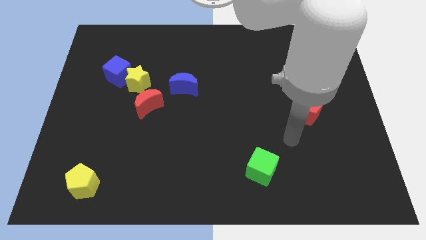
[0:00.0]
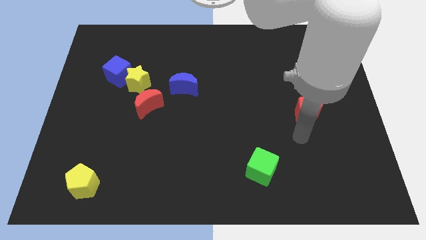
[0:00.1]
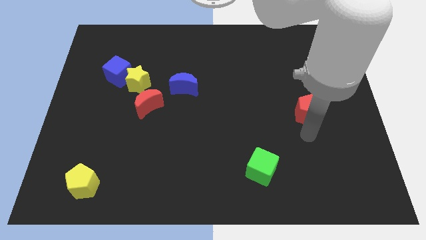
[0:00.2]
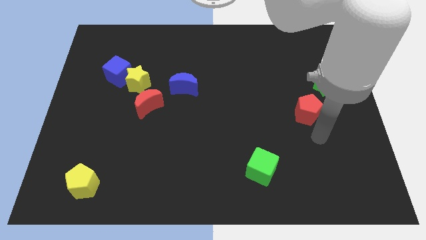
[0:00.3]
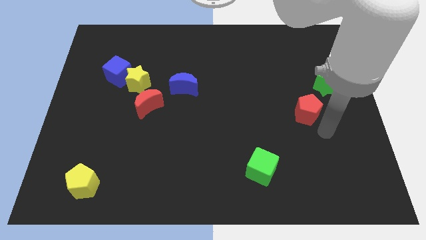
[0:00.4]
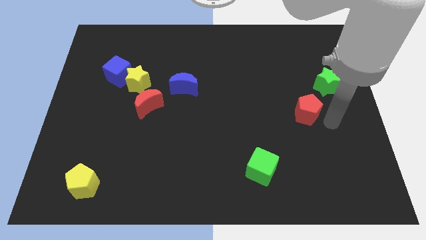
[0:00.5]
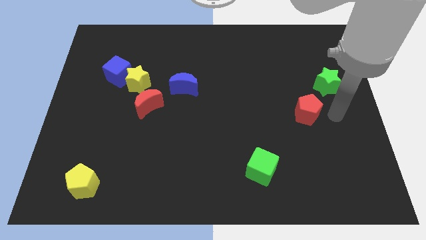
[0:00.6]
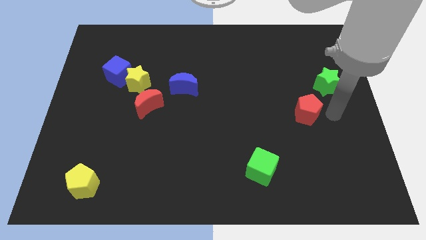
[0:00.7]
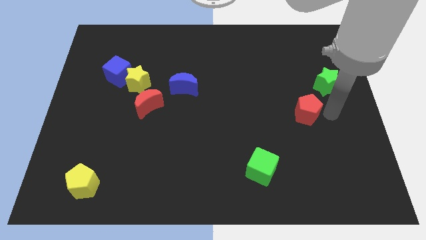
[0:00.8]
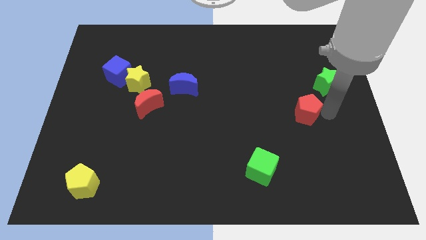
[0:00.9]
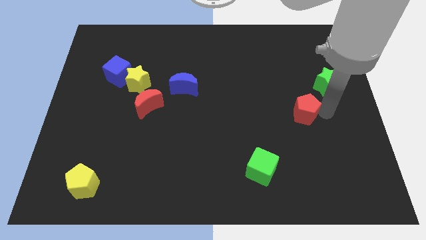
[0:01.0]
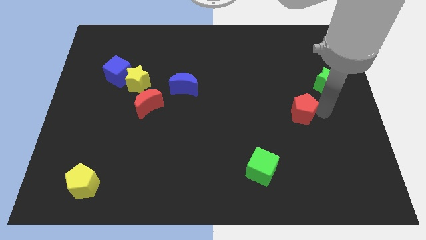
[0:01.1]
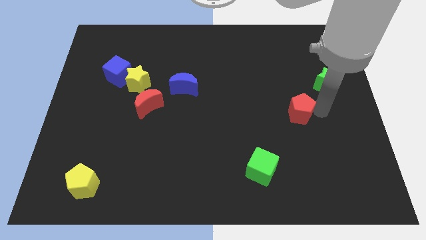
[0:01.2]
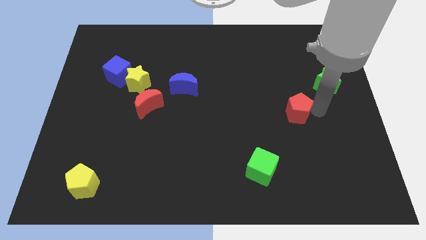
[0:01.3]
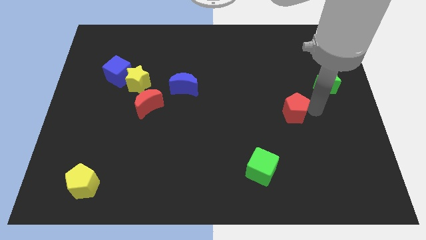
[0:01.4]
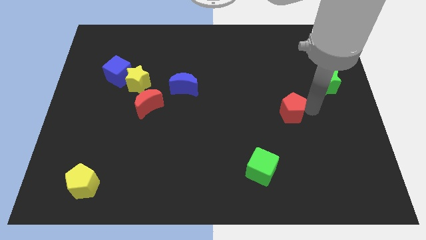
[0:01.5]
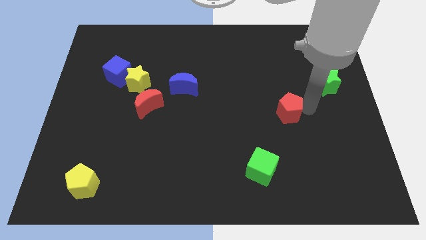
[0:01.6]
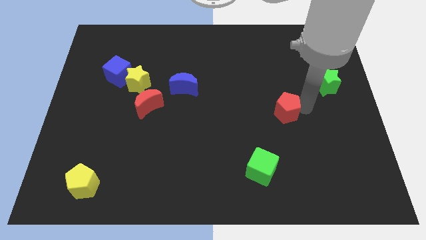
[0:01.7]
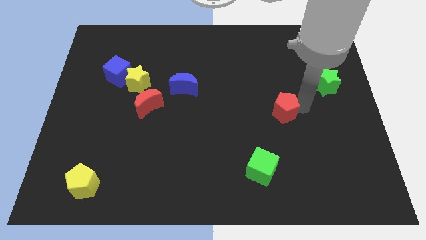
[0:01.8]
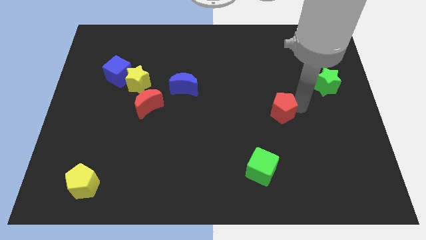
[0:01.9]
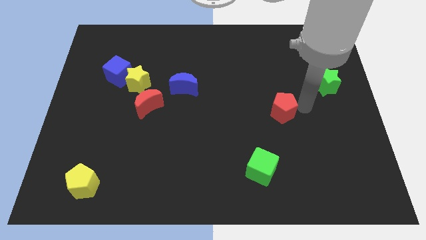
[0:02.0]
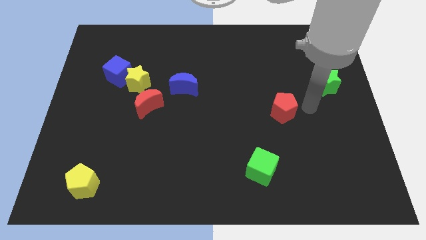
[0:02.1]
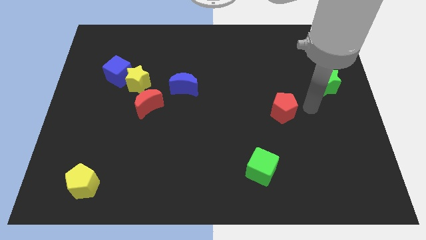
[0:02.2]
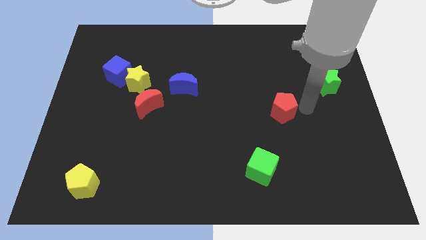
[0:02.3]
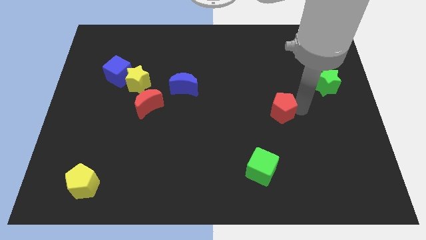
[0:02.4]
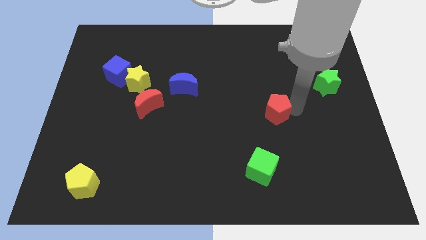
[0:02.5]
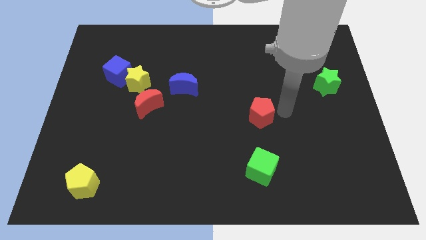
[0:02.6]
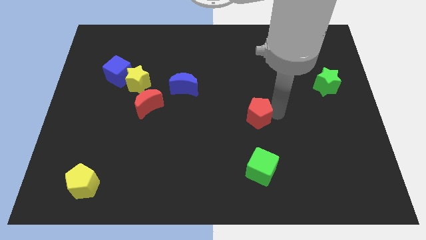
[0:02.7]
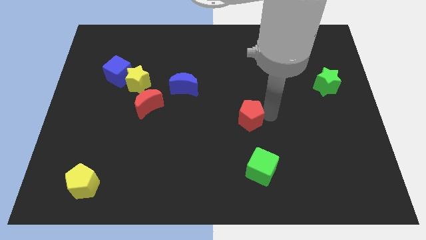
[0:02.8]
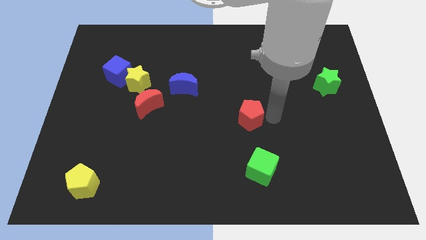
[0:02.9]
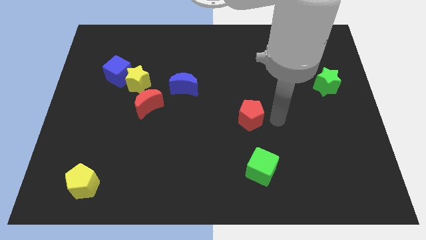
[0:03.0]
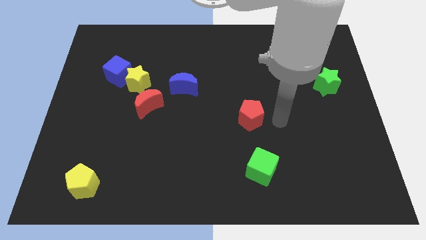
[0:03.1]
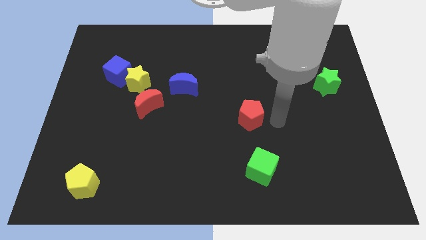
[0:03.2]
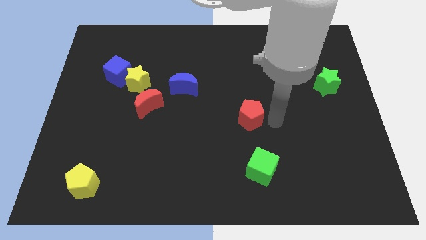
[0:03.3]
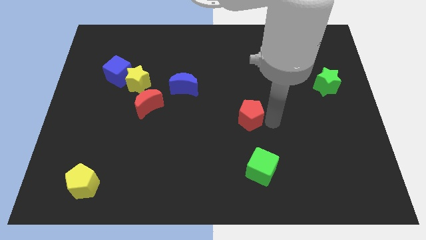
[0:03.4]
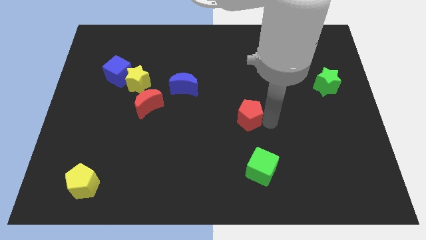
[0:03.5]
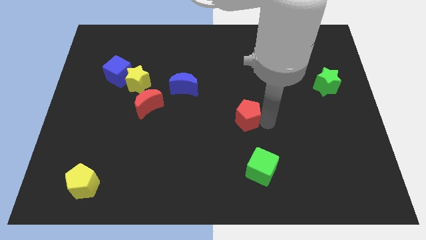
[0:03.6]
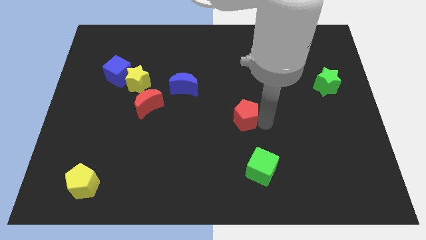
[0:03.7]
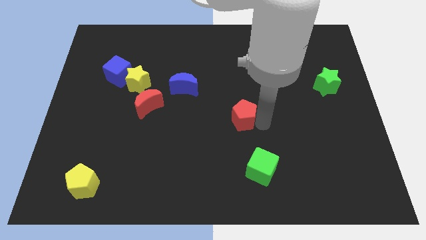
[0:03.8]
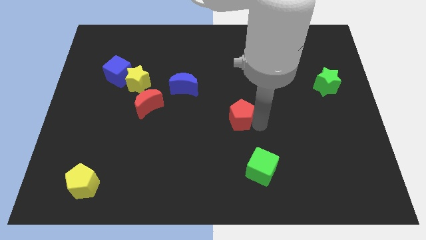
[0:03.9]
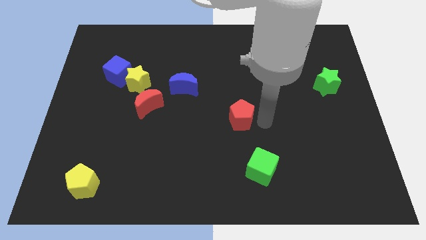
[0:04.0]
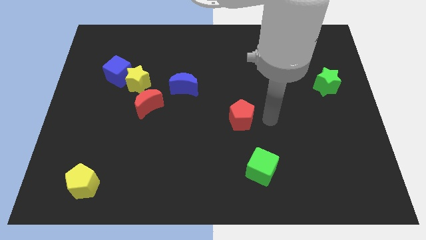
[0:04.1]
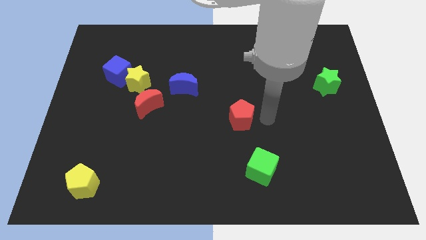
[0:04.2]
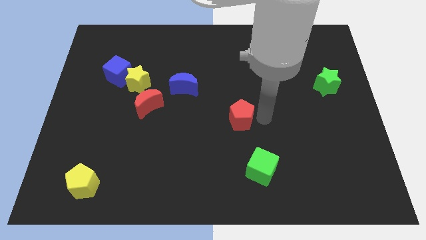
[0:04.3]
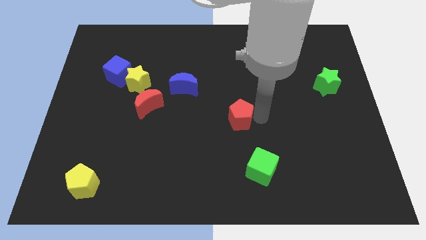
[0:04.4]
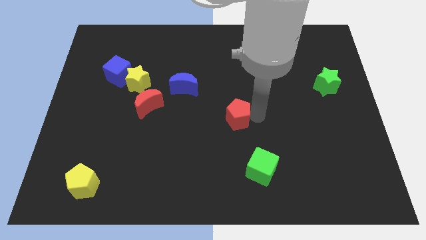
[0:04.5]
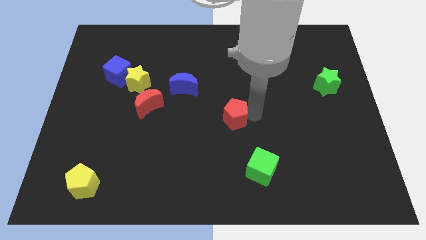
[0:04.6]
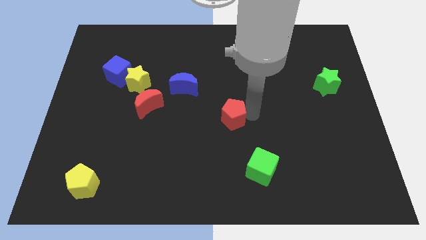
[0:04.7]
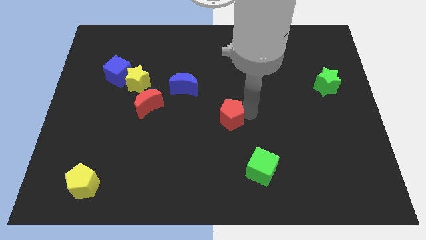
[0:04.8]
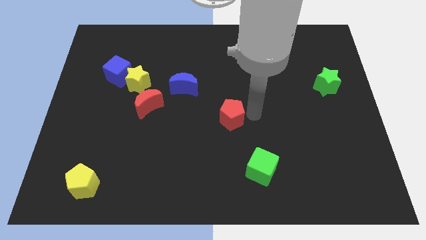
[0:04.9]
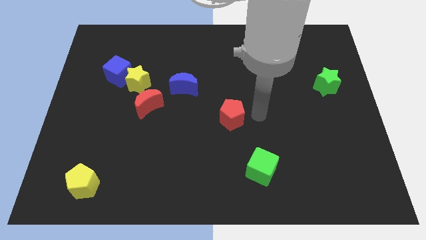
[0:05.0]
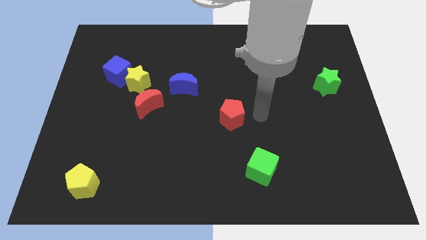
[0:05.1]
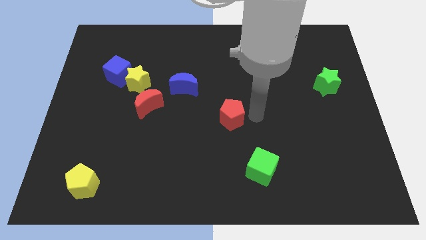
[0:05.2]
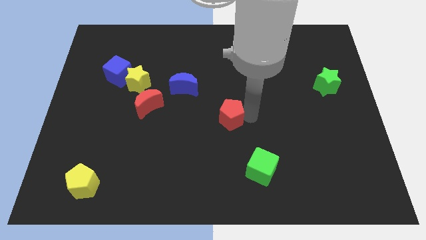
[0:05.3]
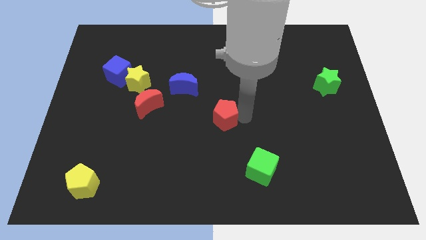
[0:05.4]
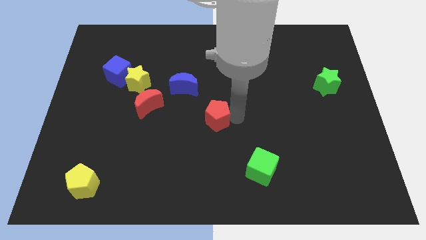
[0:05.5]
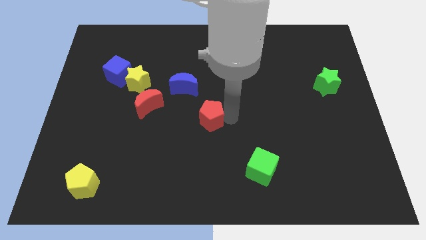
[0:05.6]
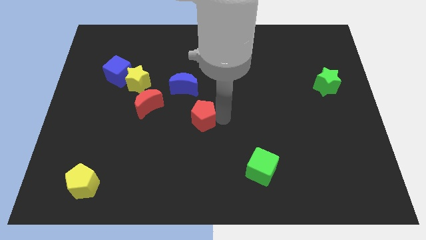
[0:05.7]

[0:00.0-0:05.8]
push the red pentagon below the blue moon

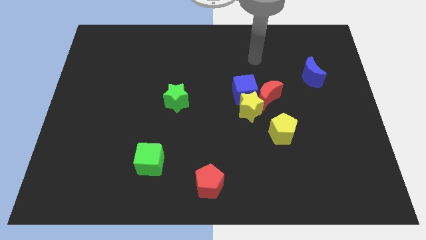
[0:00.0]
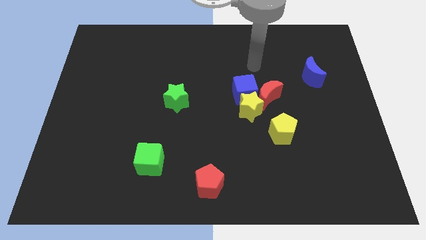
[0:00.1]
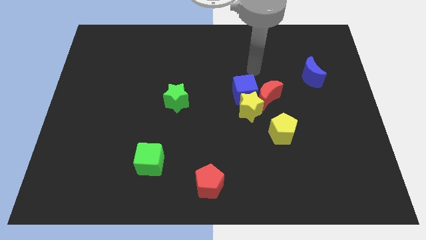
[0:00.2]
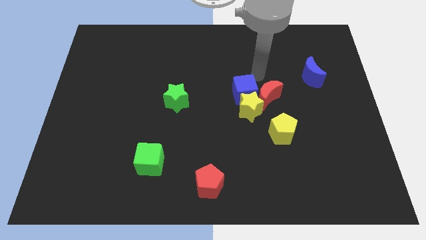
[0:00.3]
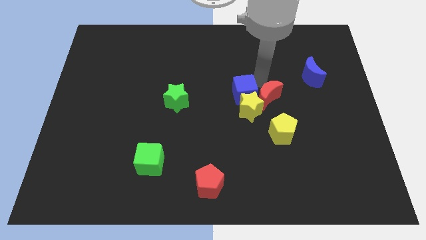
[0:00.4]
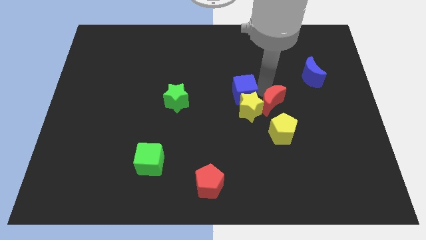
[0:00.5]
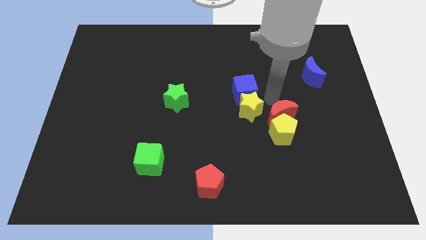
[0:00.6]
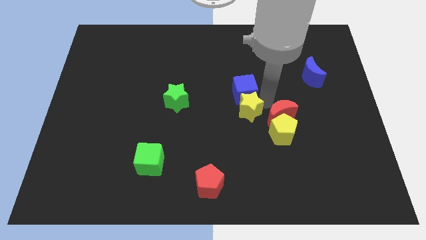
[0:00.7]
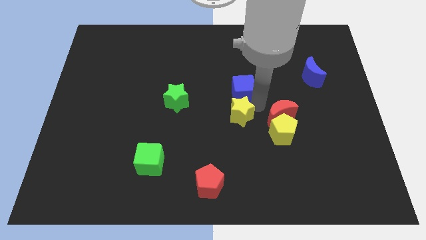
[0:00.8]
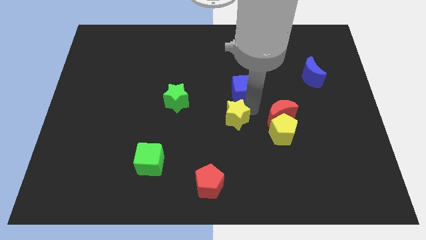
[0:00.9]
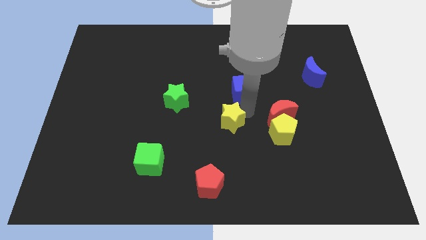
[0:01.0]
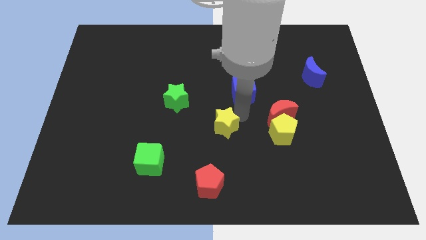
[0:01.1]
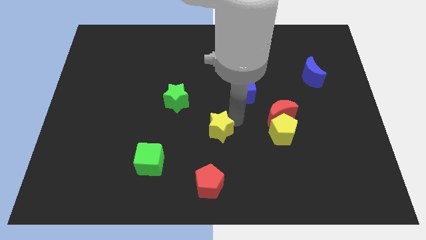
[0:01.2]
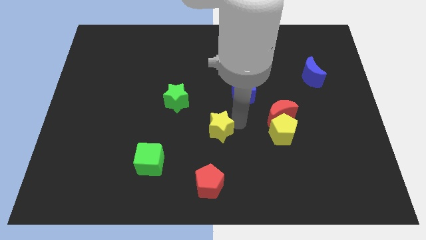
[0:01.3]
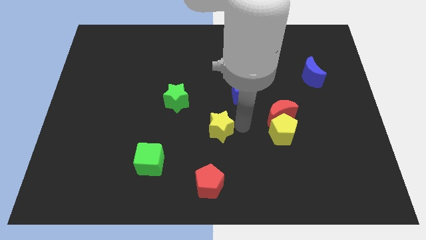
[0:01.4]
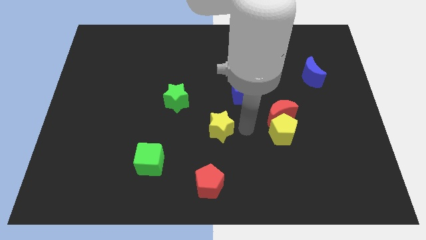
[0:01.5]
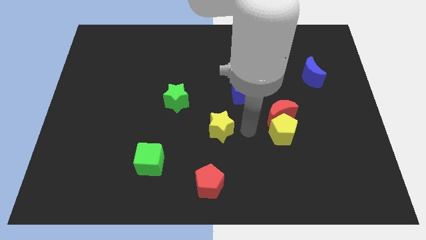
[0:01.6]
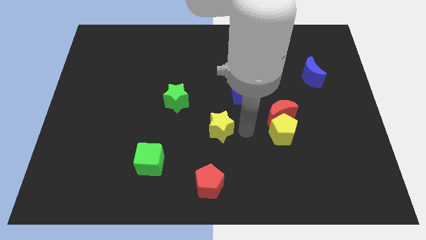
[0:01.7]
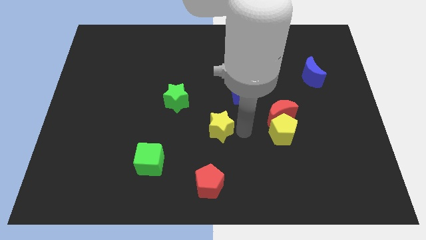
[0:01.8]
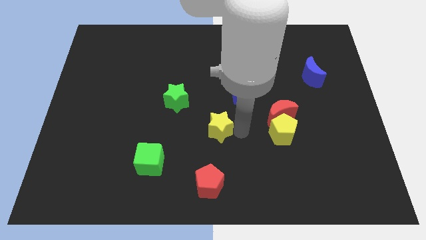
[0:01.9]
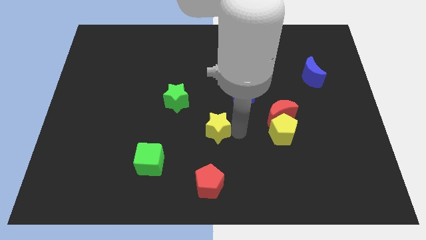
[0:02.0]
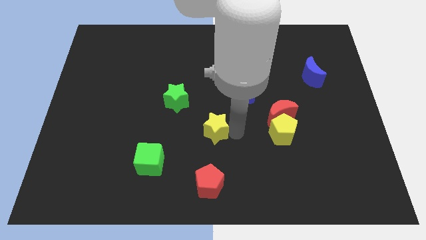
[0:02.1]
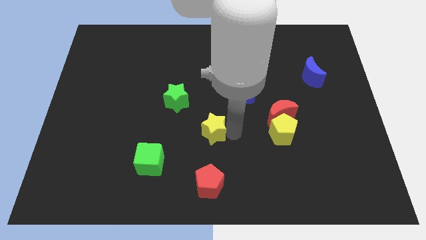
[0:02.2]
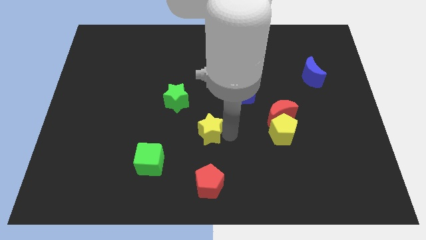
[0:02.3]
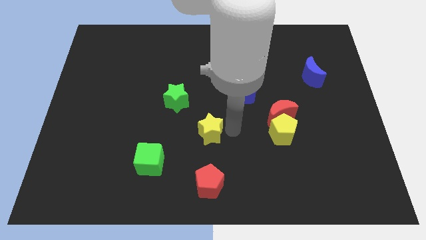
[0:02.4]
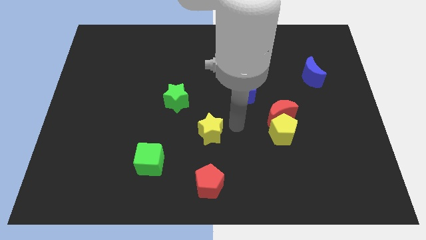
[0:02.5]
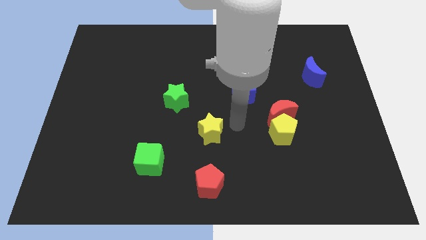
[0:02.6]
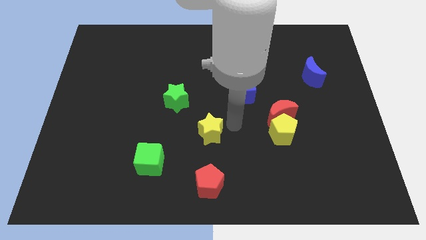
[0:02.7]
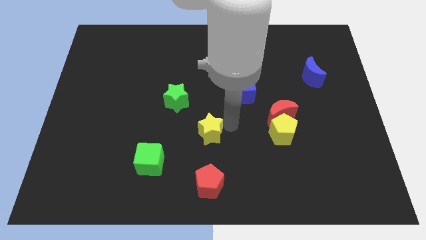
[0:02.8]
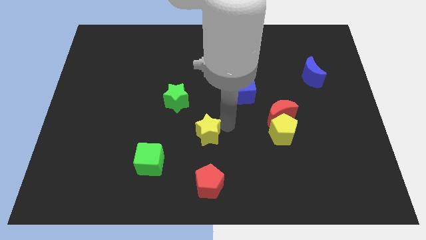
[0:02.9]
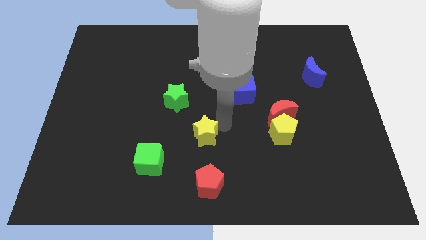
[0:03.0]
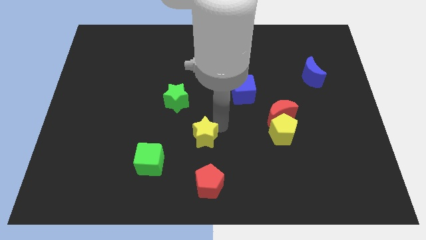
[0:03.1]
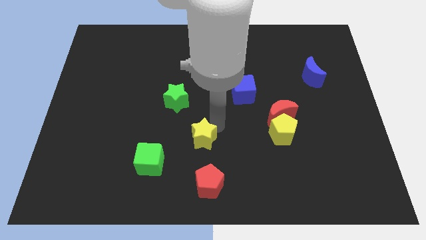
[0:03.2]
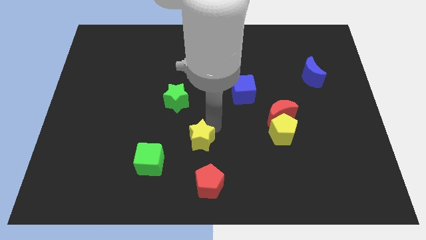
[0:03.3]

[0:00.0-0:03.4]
push the yellow star to the top right of the green cube
